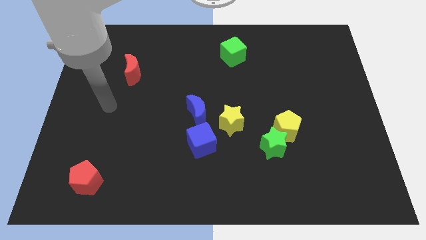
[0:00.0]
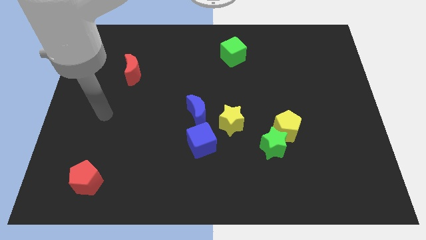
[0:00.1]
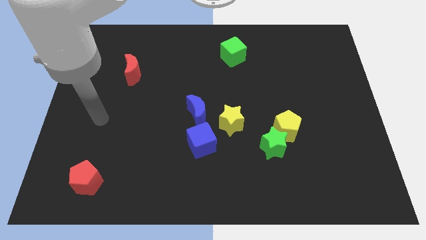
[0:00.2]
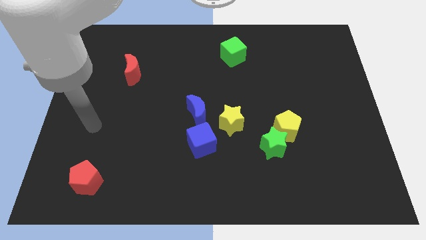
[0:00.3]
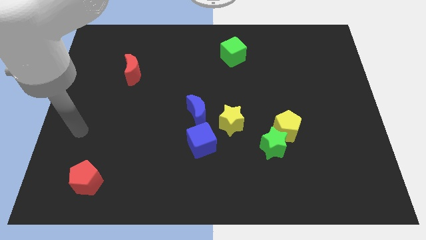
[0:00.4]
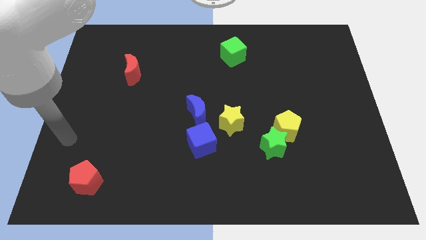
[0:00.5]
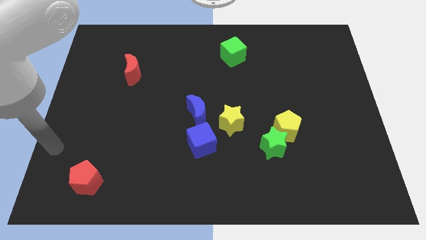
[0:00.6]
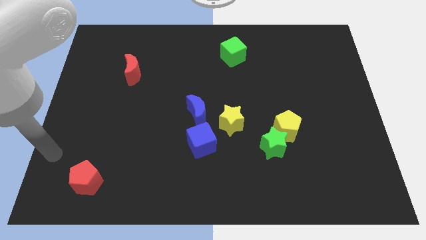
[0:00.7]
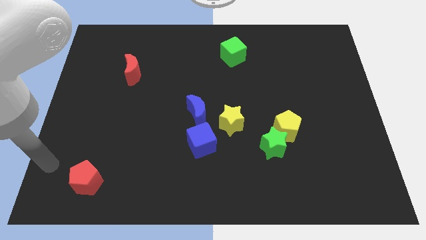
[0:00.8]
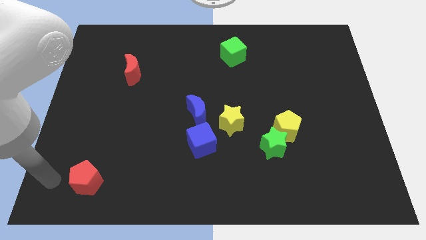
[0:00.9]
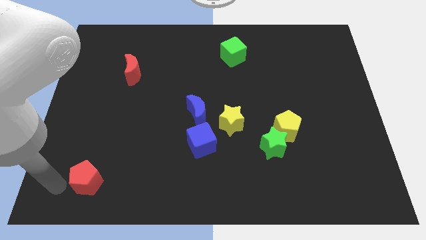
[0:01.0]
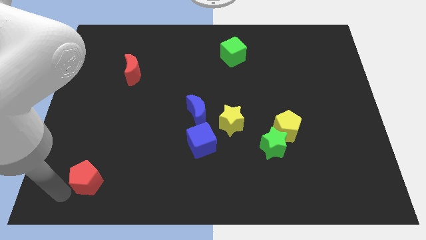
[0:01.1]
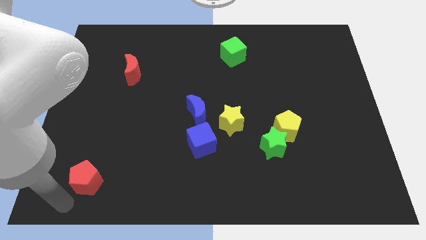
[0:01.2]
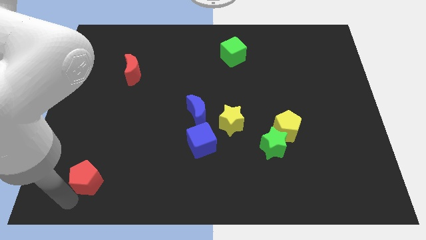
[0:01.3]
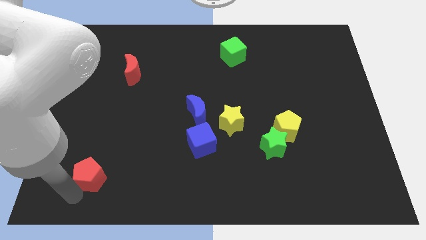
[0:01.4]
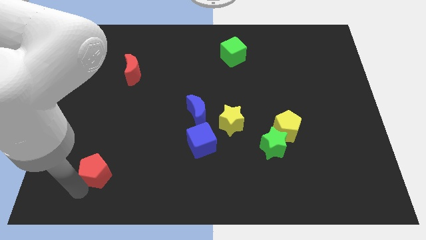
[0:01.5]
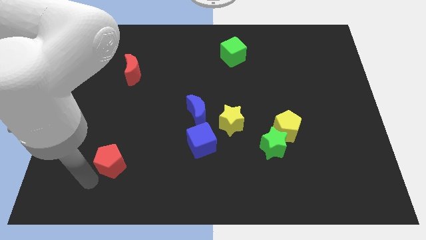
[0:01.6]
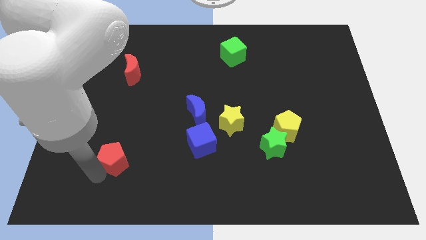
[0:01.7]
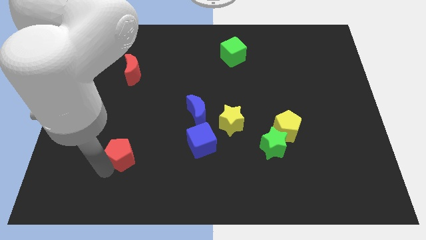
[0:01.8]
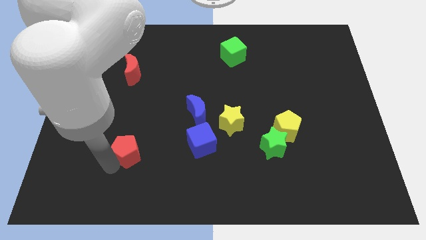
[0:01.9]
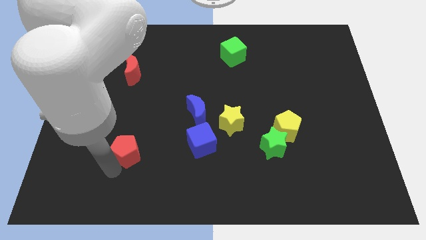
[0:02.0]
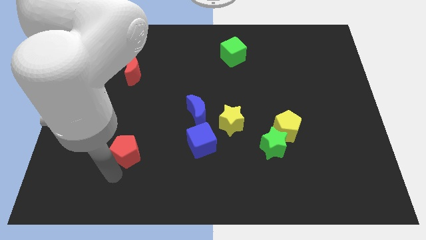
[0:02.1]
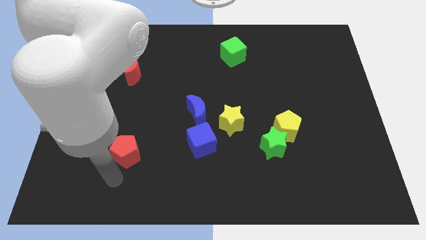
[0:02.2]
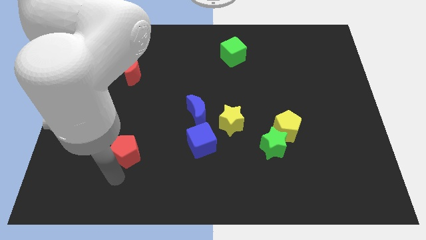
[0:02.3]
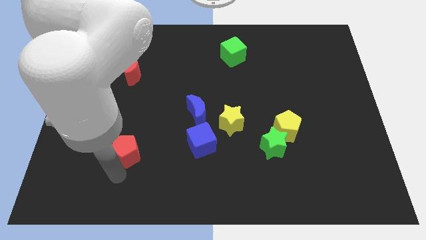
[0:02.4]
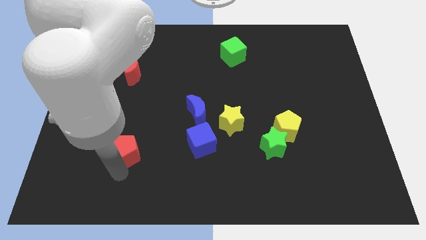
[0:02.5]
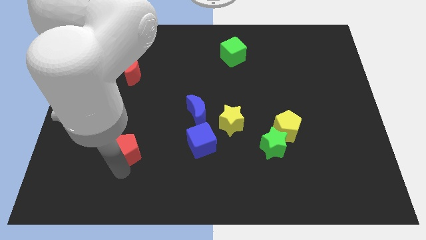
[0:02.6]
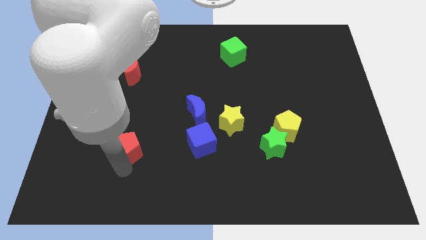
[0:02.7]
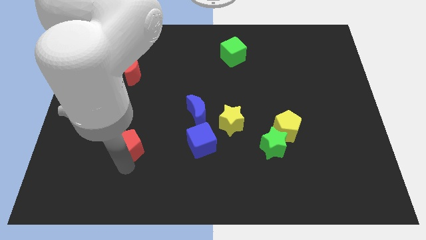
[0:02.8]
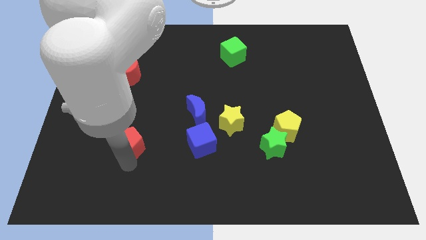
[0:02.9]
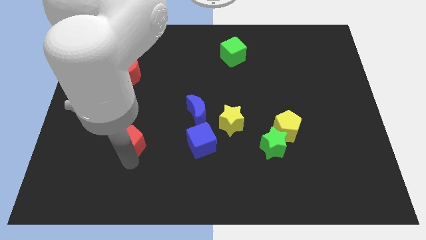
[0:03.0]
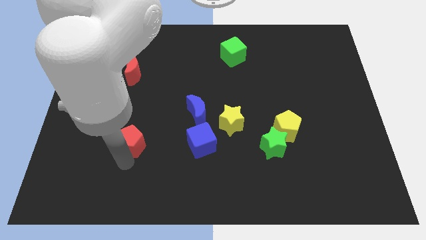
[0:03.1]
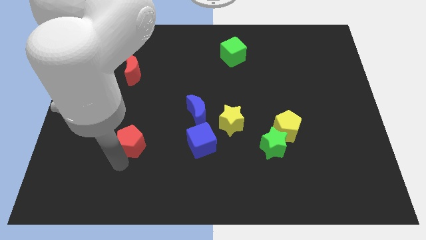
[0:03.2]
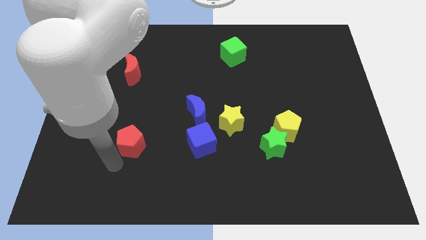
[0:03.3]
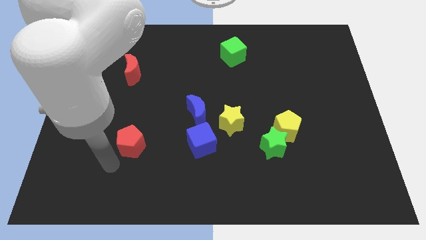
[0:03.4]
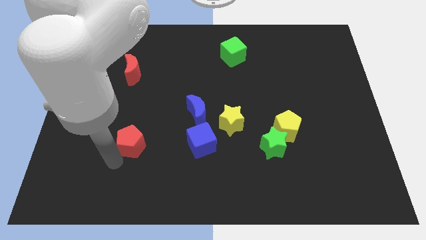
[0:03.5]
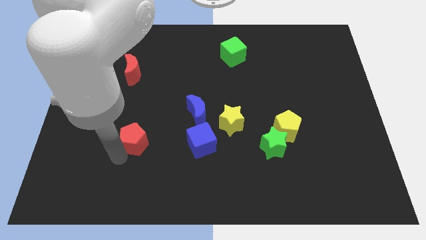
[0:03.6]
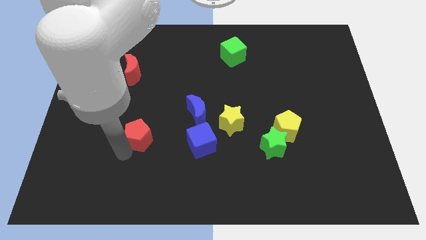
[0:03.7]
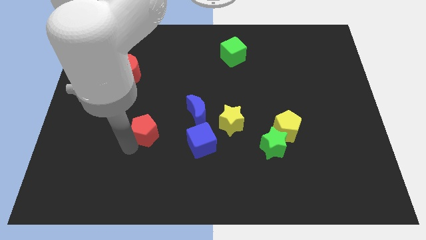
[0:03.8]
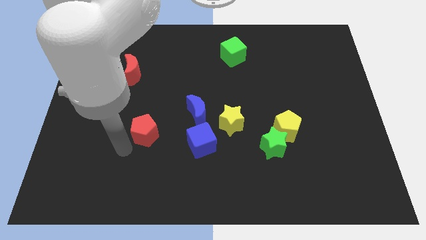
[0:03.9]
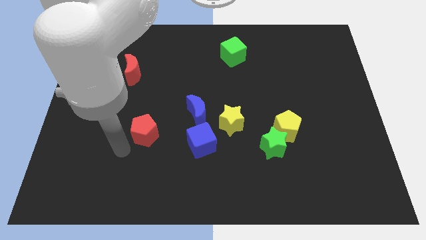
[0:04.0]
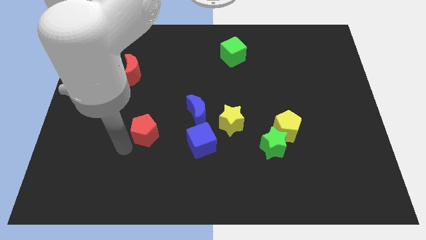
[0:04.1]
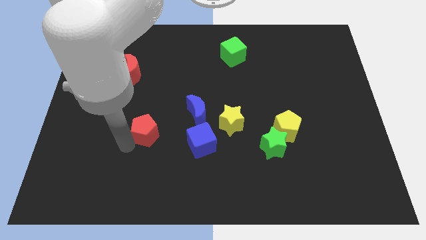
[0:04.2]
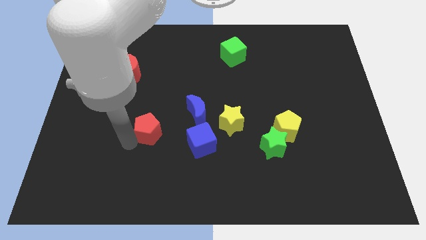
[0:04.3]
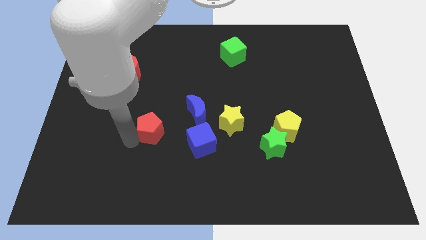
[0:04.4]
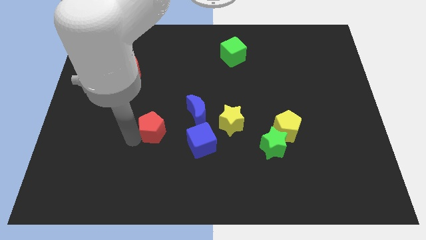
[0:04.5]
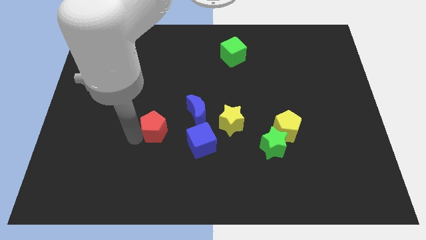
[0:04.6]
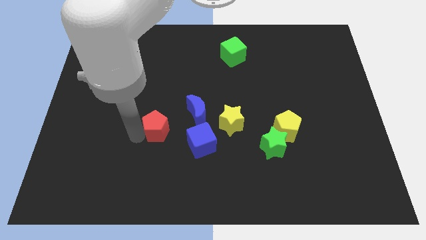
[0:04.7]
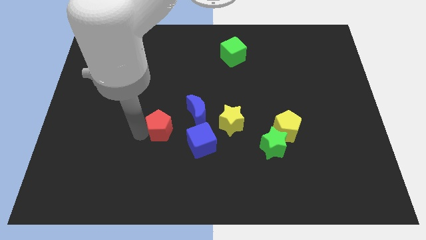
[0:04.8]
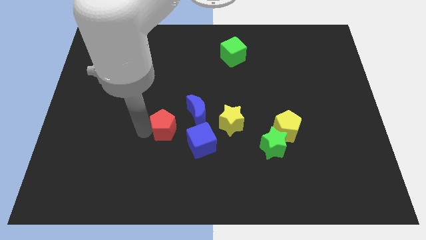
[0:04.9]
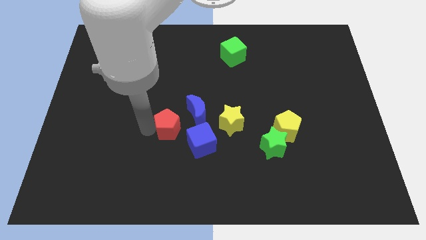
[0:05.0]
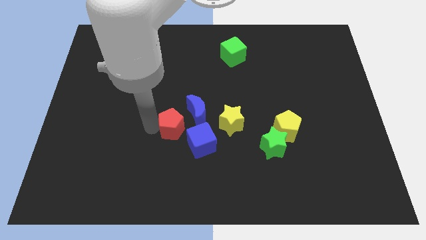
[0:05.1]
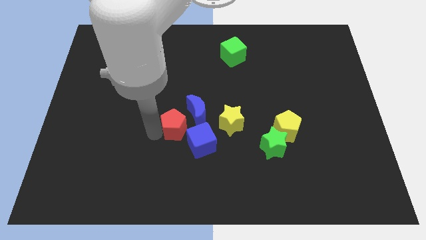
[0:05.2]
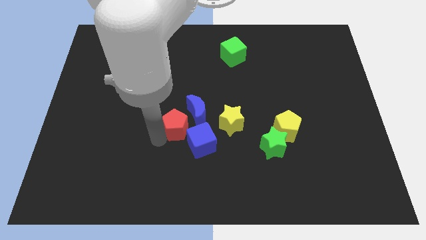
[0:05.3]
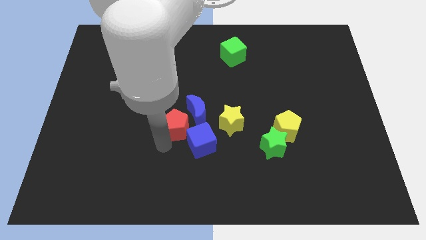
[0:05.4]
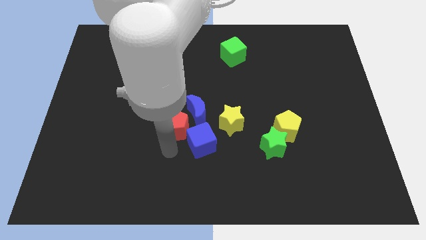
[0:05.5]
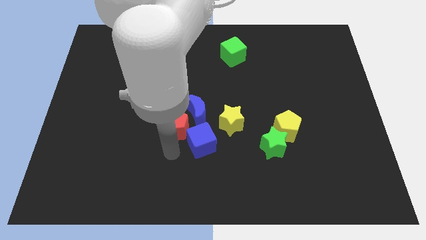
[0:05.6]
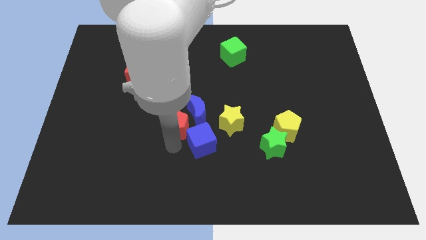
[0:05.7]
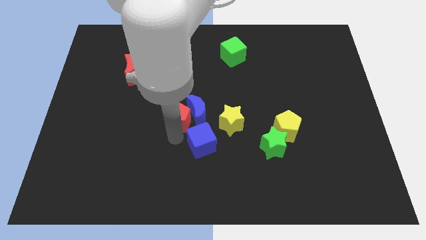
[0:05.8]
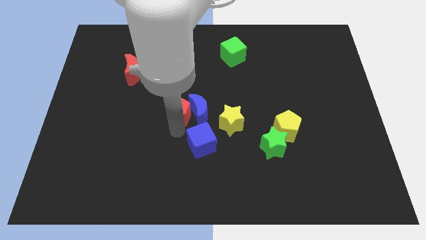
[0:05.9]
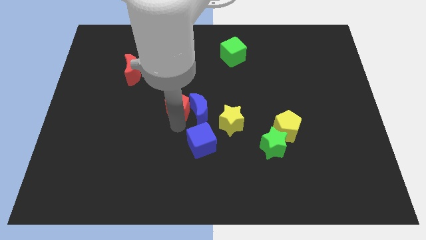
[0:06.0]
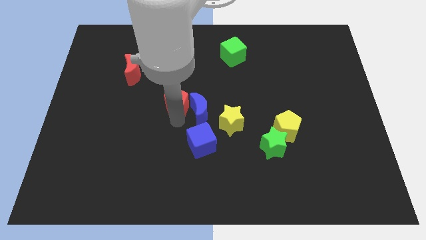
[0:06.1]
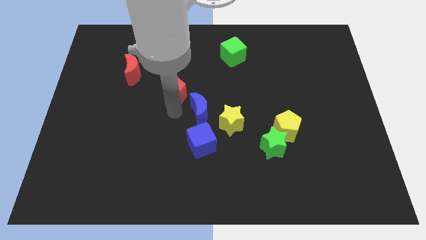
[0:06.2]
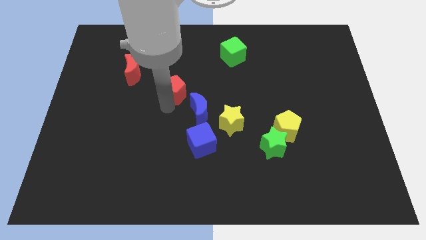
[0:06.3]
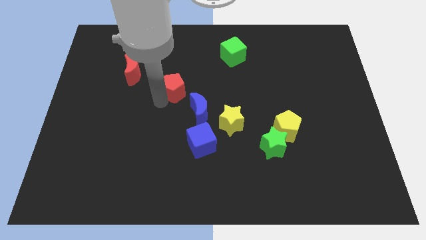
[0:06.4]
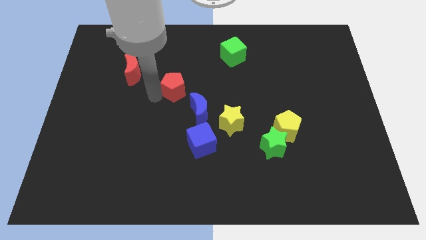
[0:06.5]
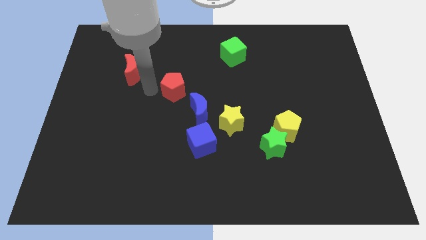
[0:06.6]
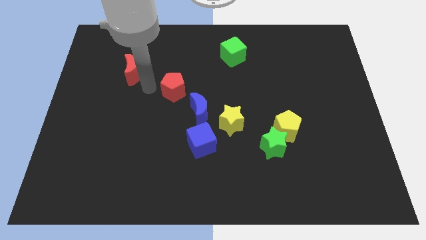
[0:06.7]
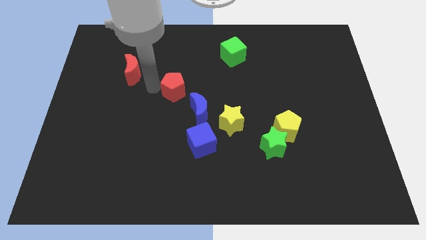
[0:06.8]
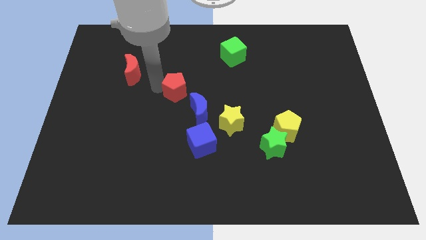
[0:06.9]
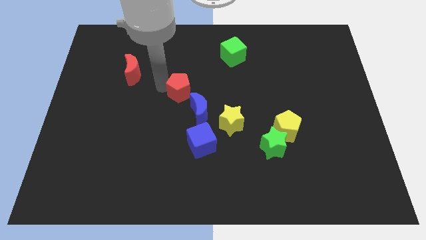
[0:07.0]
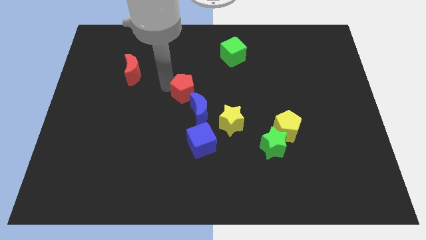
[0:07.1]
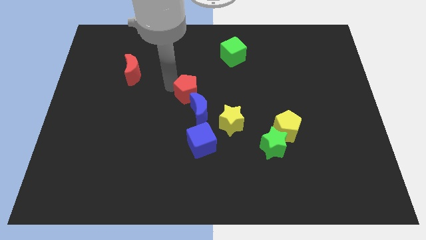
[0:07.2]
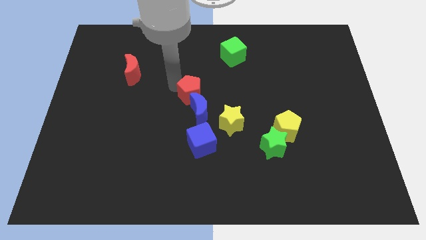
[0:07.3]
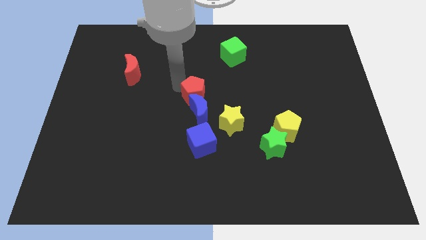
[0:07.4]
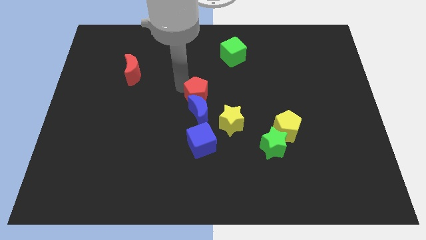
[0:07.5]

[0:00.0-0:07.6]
move the red pentagon diagonally up and to the right of the blue moon

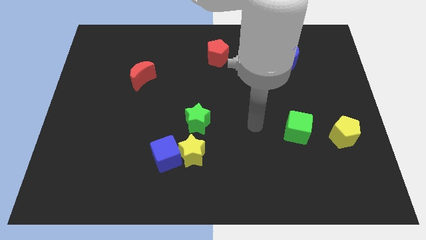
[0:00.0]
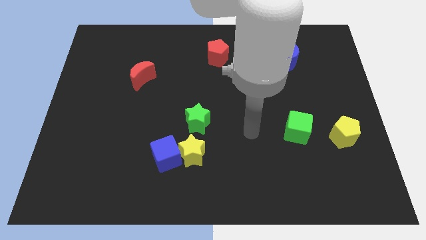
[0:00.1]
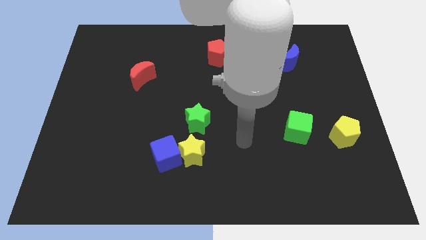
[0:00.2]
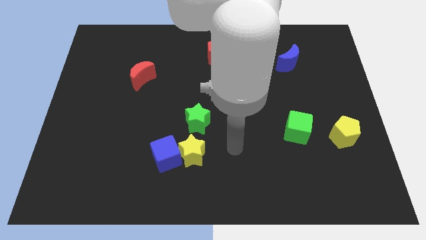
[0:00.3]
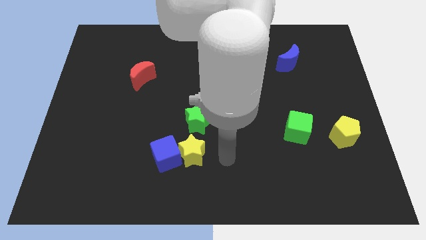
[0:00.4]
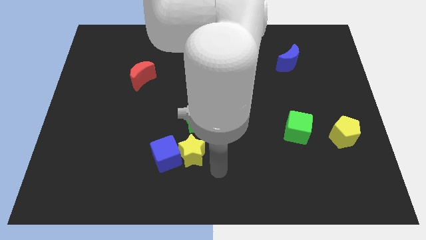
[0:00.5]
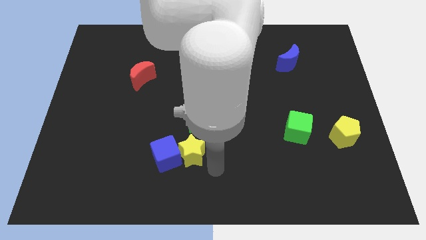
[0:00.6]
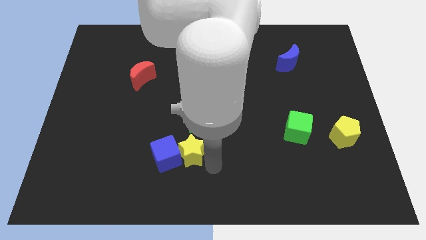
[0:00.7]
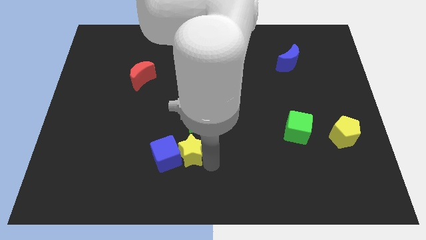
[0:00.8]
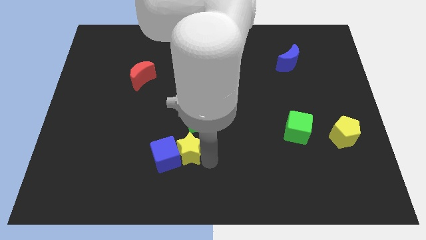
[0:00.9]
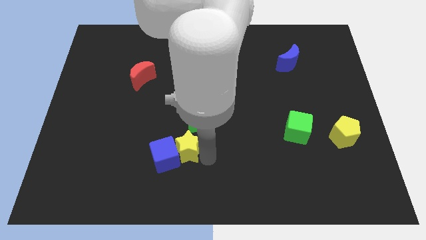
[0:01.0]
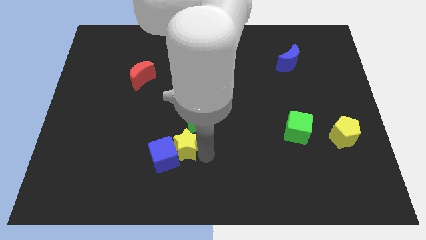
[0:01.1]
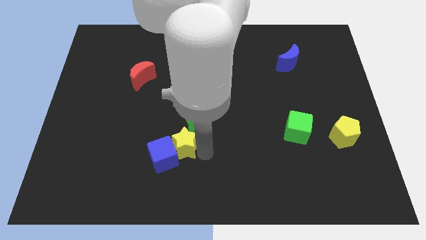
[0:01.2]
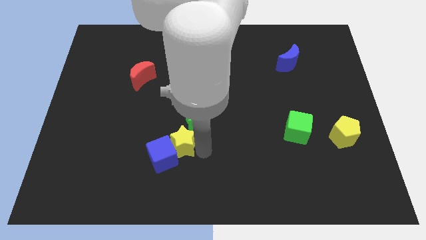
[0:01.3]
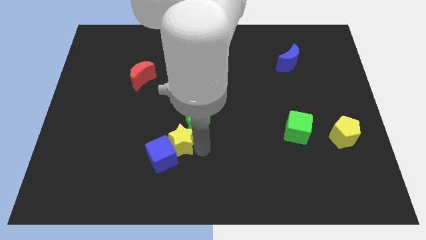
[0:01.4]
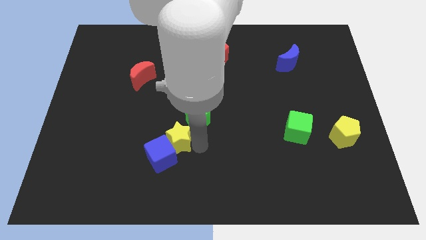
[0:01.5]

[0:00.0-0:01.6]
move the yellow star to the left of the green star
